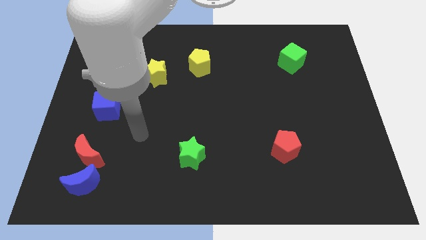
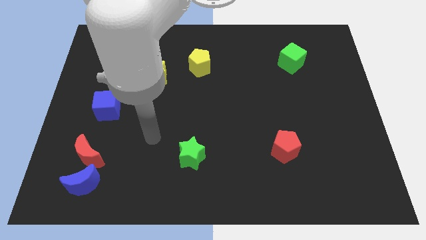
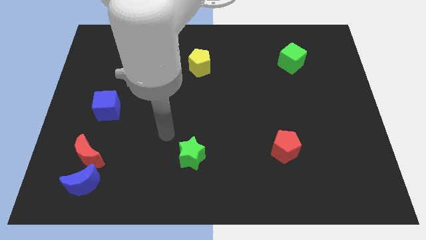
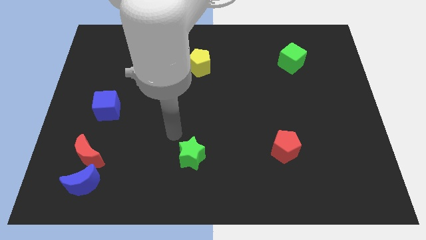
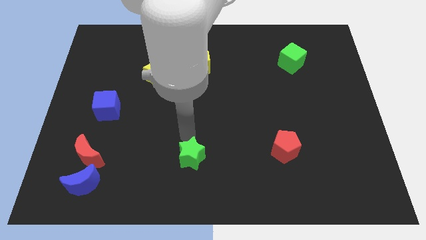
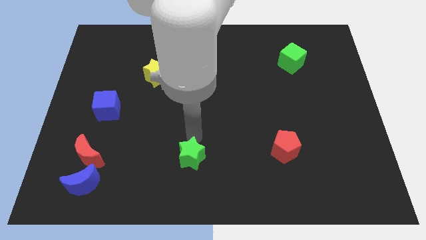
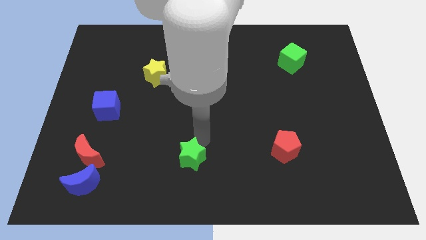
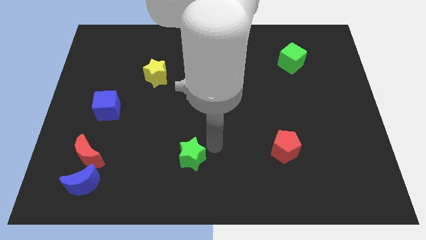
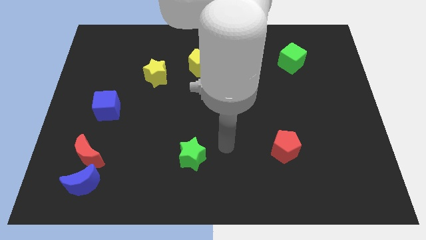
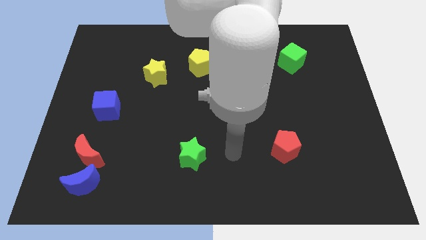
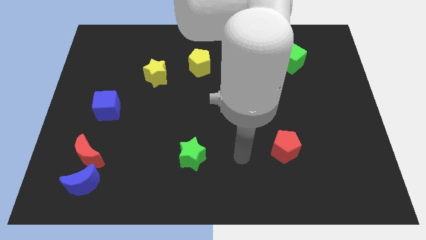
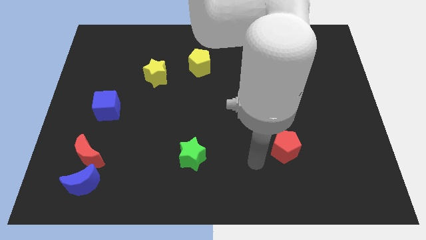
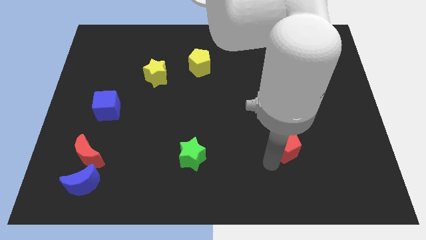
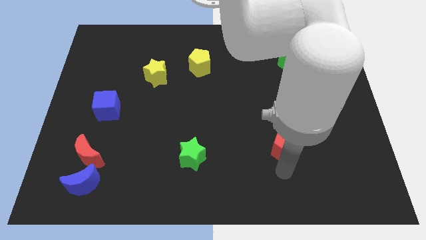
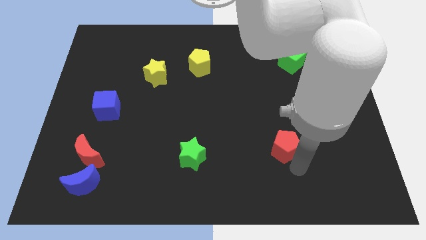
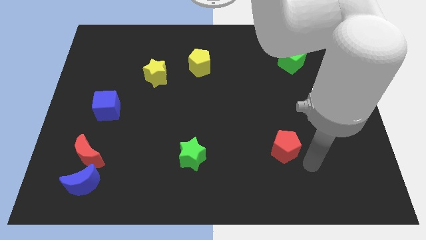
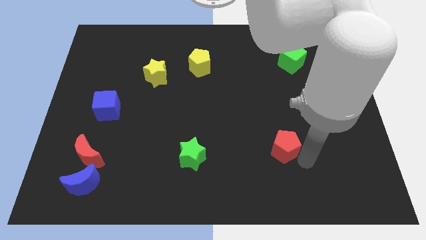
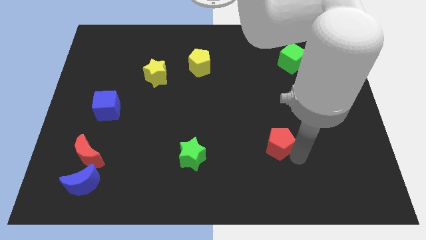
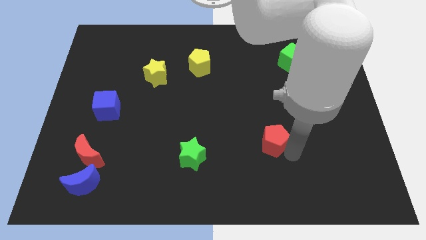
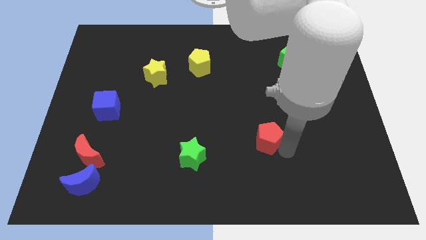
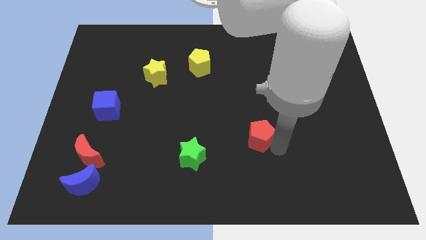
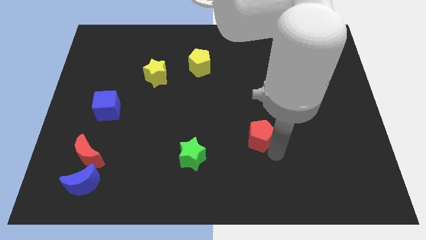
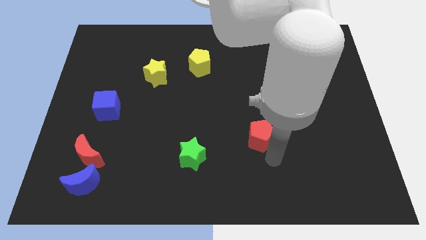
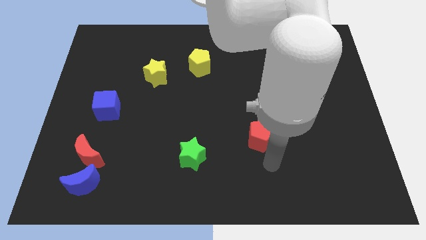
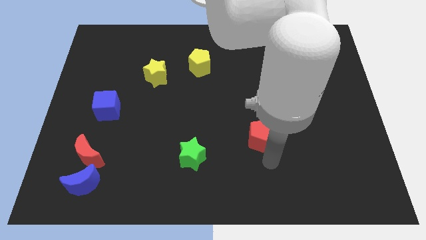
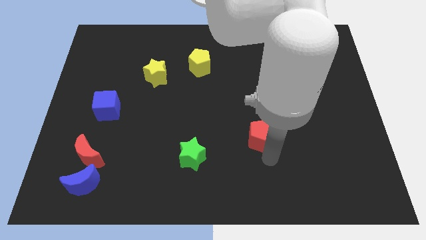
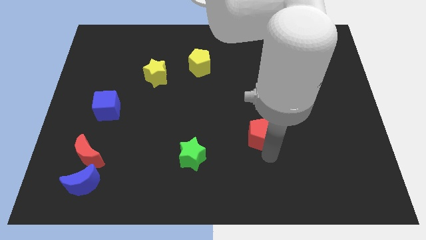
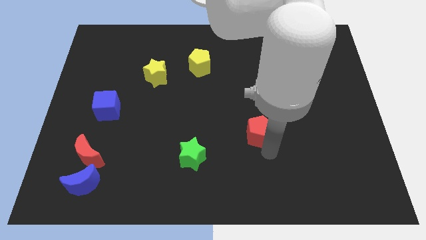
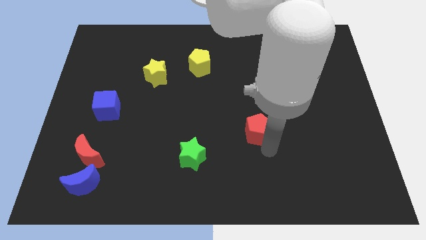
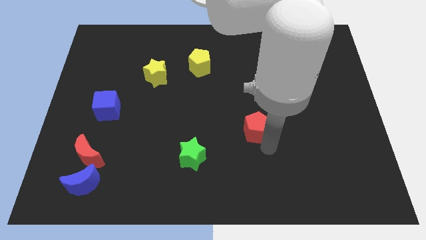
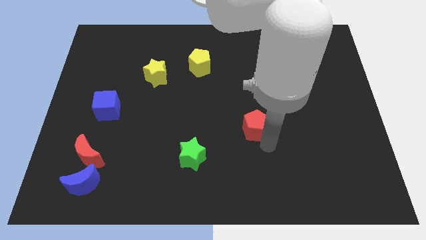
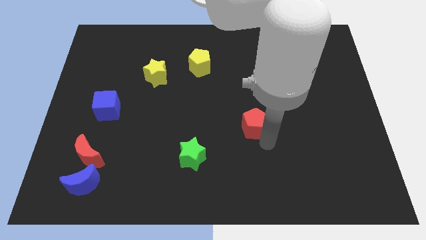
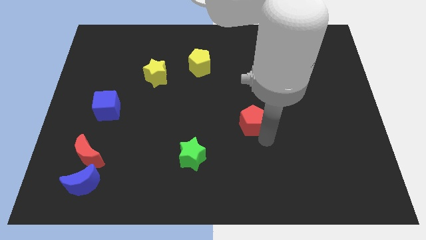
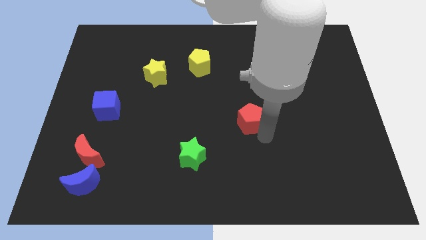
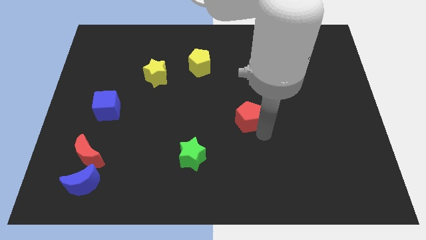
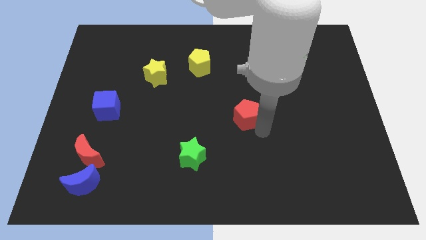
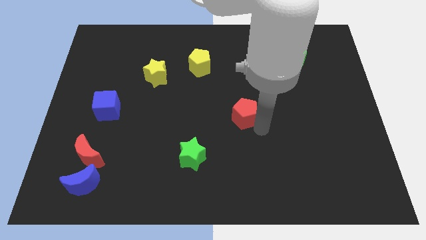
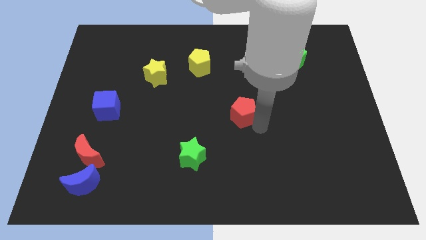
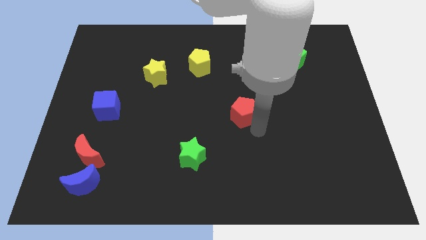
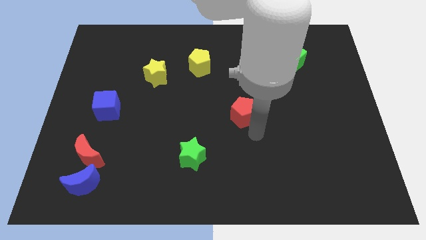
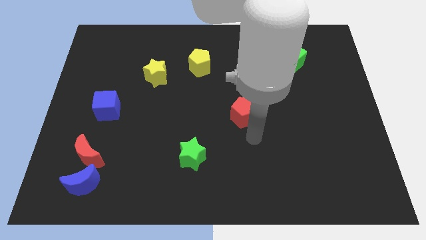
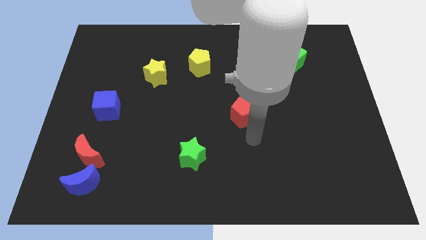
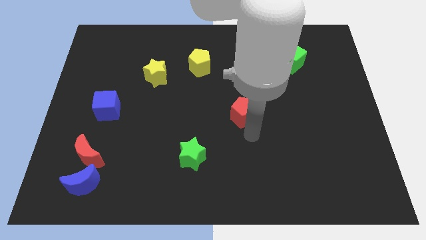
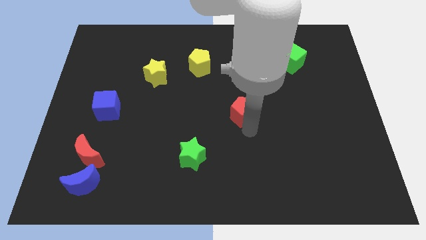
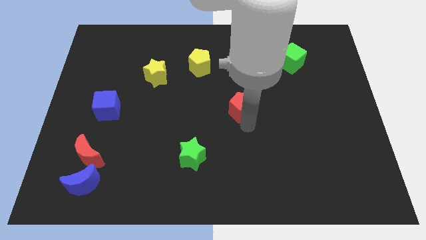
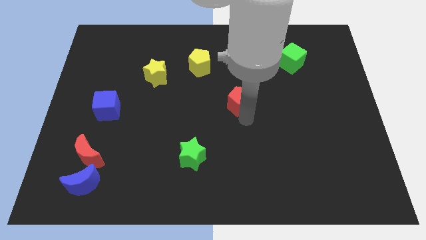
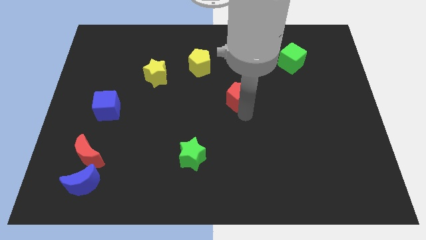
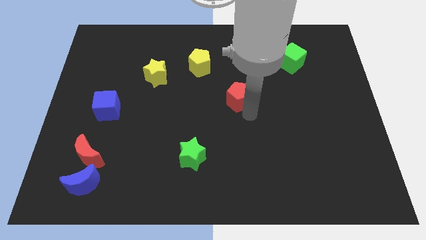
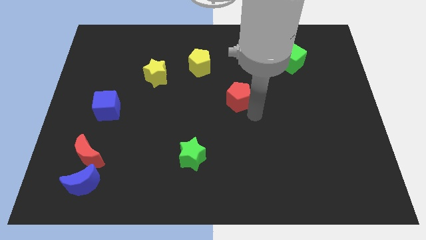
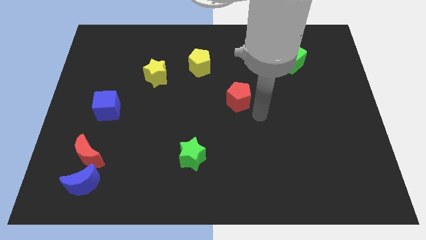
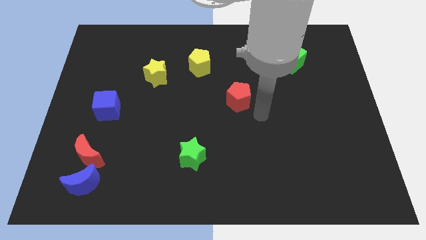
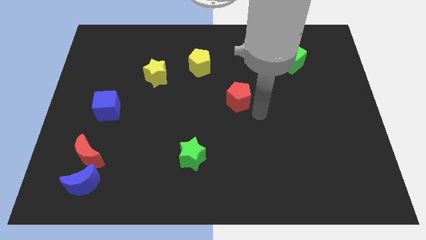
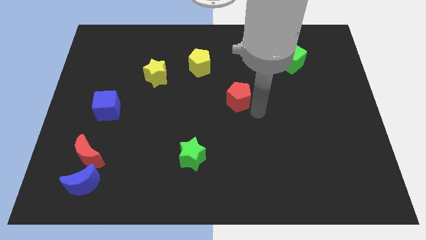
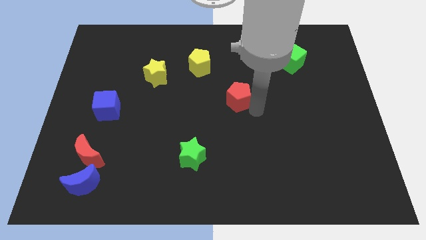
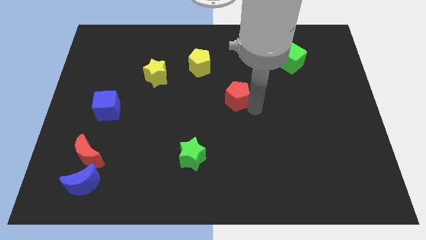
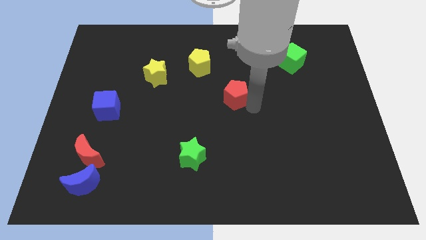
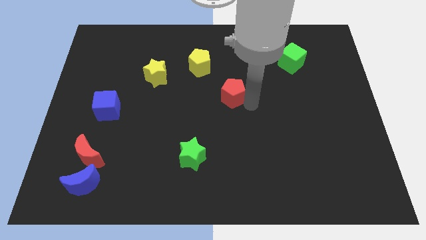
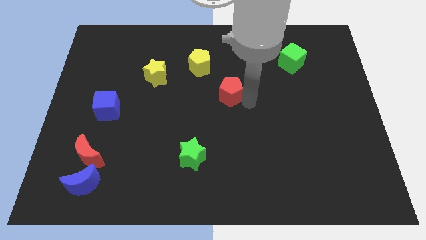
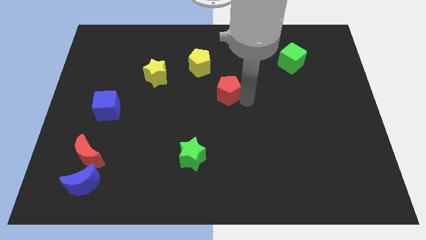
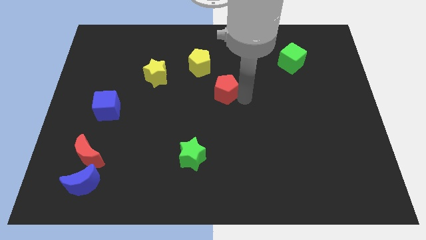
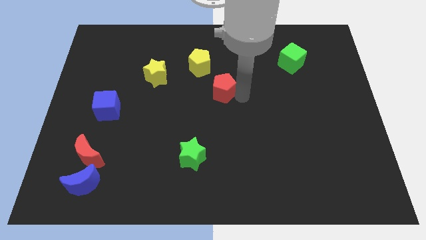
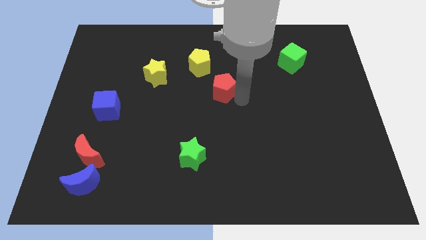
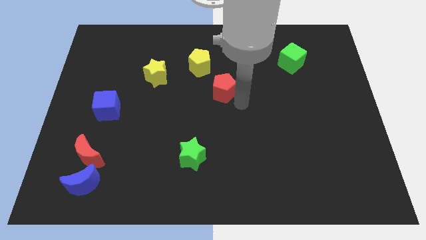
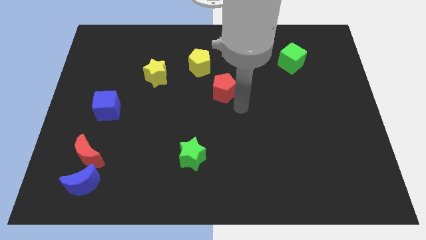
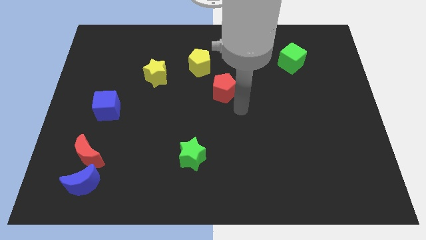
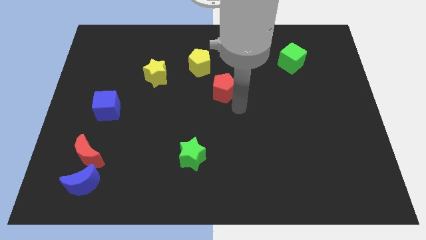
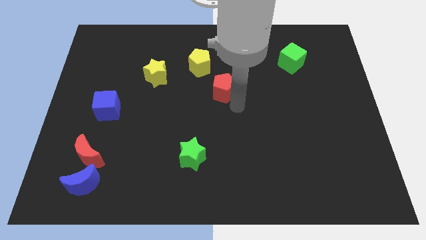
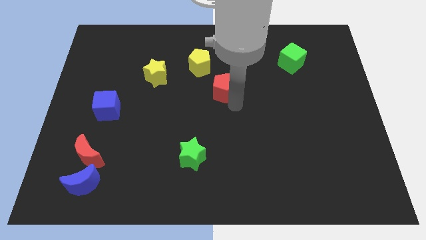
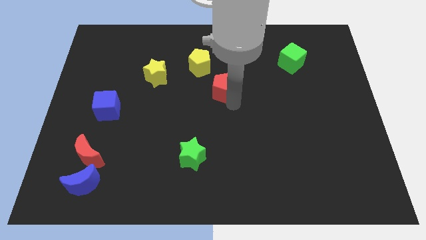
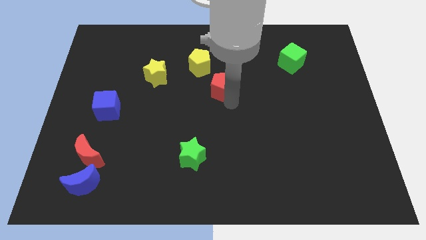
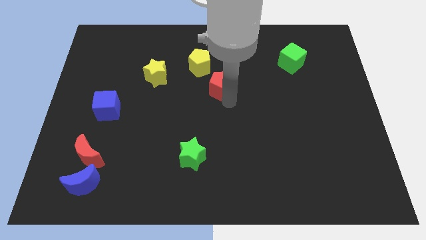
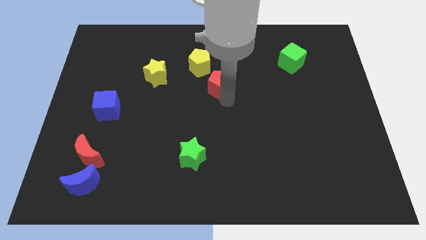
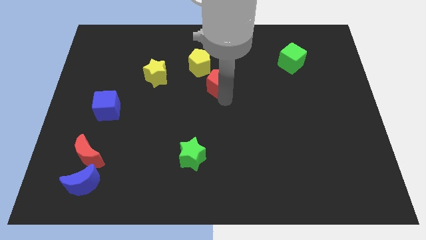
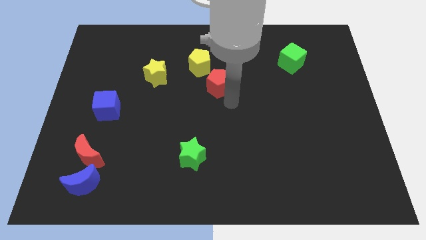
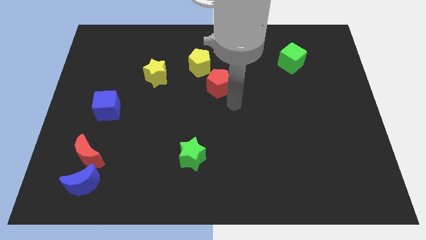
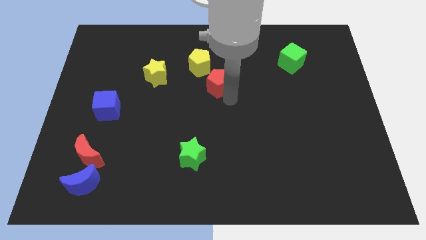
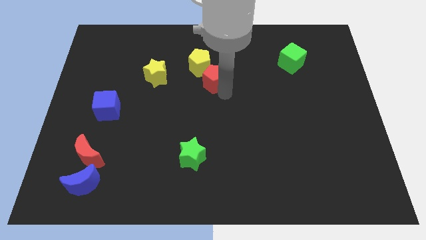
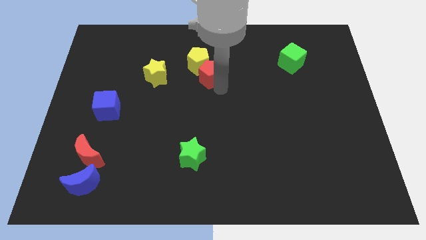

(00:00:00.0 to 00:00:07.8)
move the red pentagon next to the yellow pentagon
